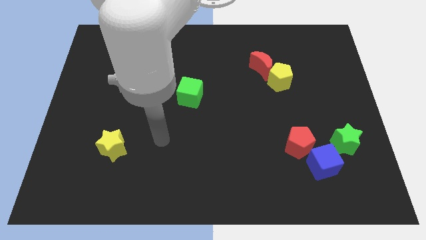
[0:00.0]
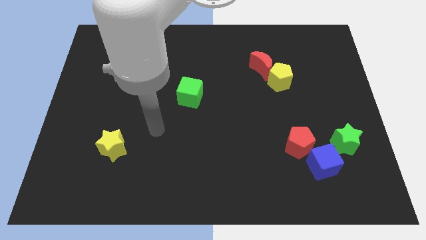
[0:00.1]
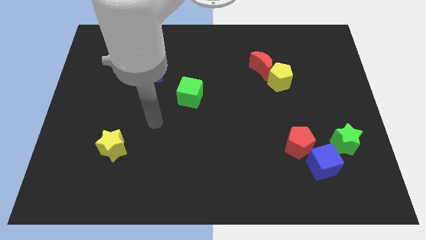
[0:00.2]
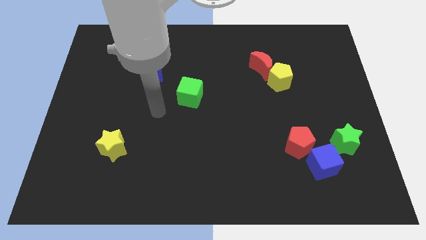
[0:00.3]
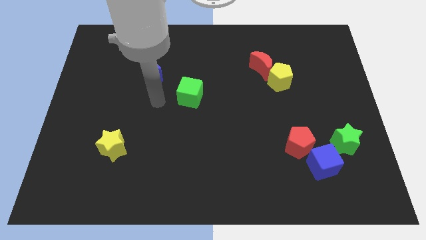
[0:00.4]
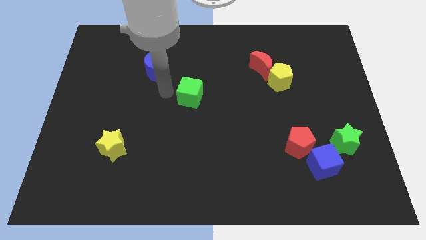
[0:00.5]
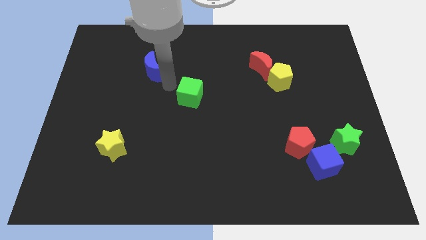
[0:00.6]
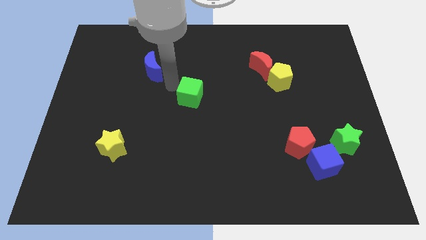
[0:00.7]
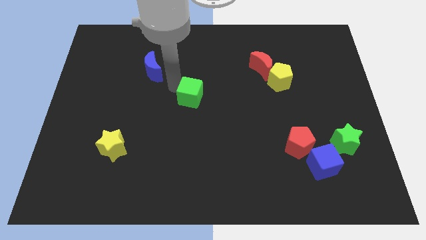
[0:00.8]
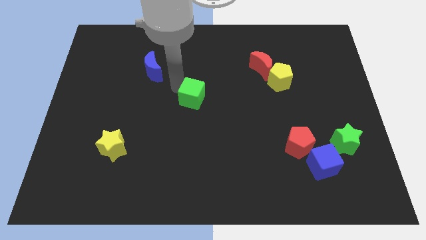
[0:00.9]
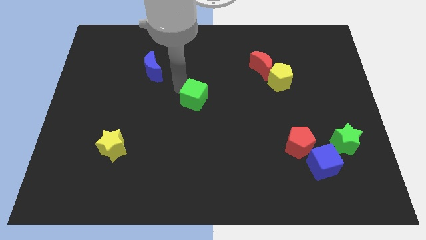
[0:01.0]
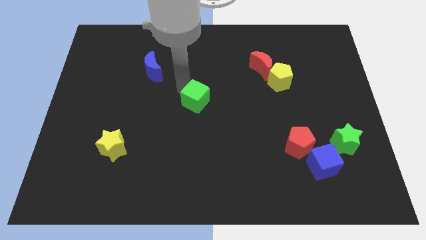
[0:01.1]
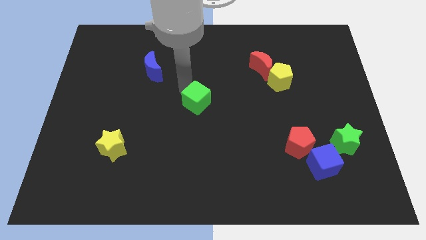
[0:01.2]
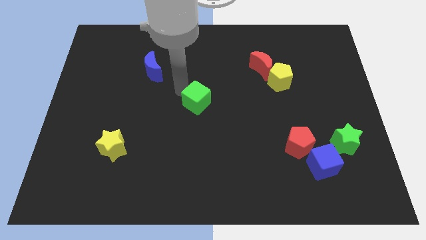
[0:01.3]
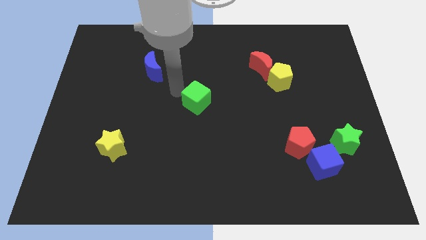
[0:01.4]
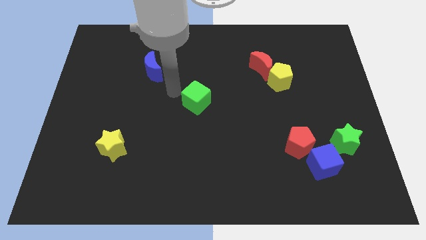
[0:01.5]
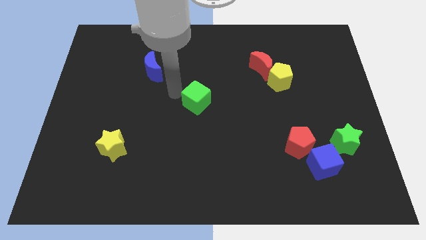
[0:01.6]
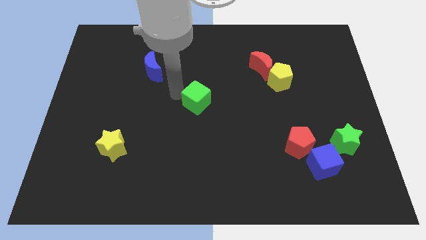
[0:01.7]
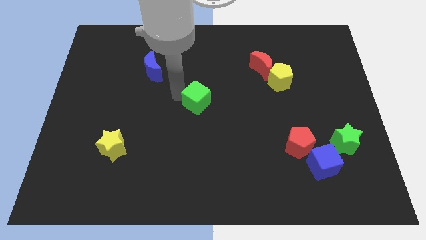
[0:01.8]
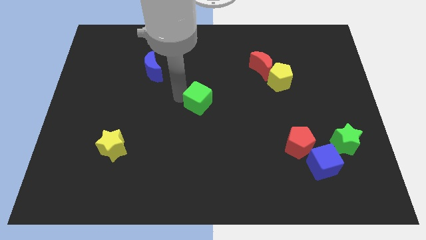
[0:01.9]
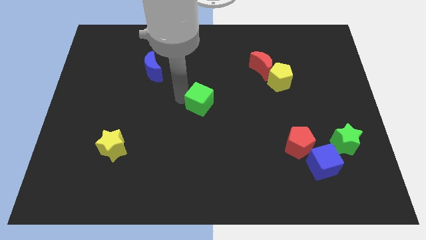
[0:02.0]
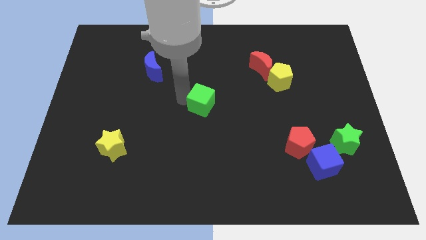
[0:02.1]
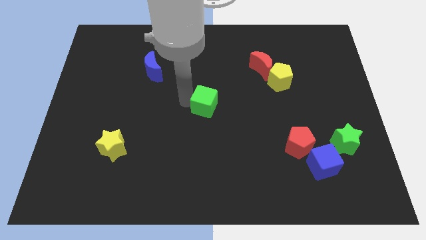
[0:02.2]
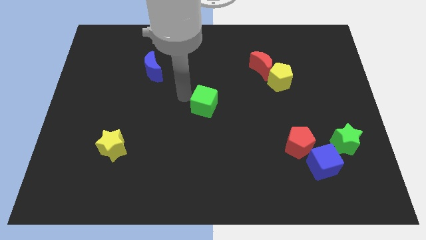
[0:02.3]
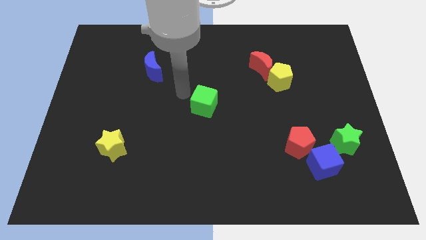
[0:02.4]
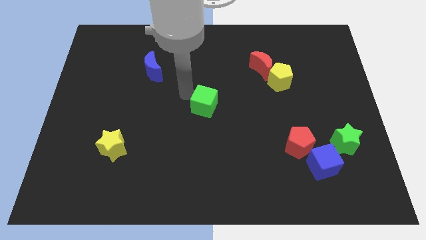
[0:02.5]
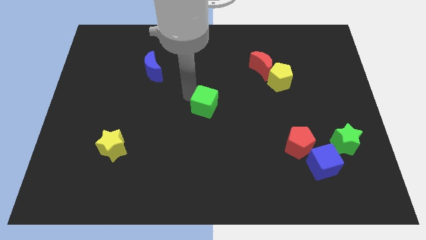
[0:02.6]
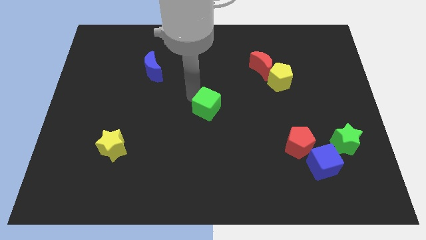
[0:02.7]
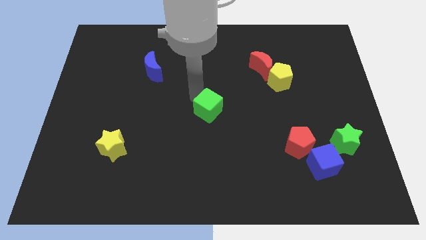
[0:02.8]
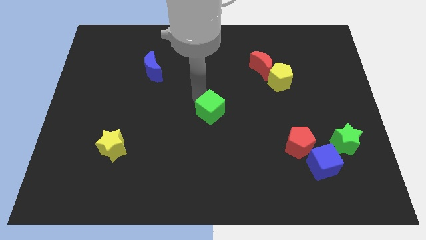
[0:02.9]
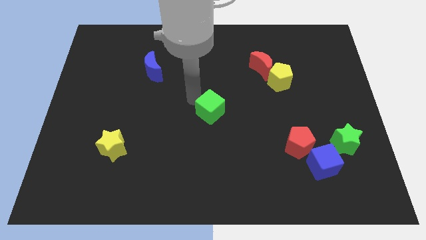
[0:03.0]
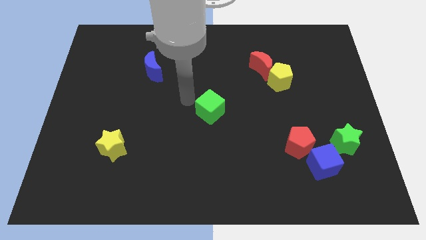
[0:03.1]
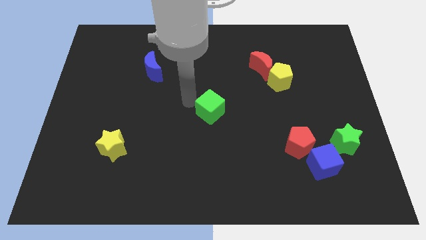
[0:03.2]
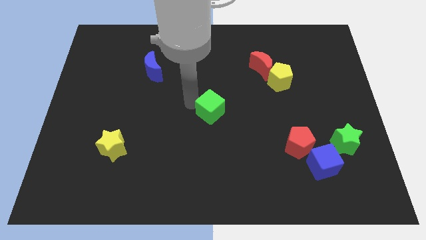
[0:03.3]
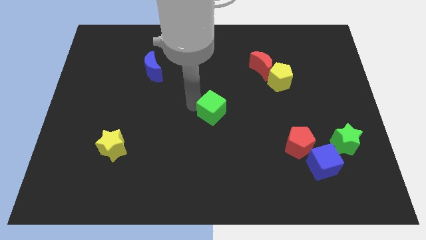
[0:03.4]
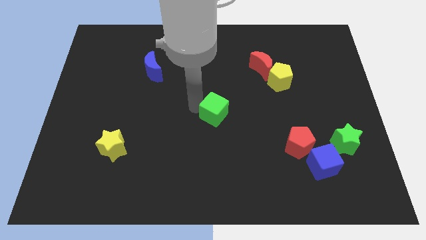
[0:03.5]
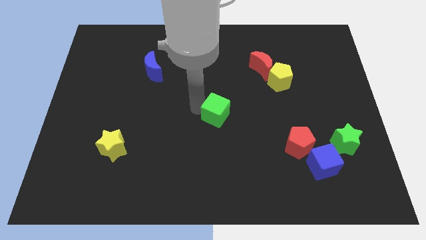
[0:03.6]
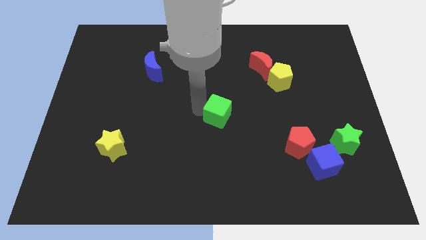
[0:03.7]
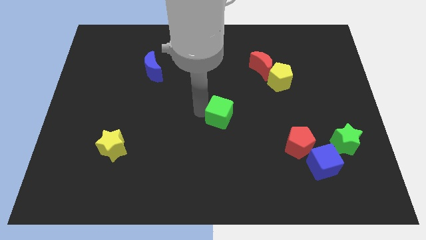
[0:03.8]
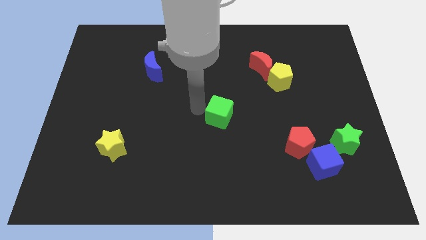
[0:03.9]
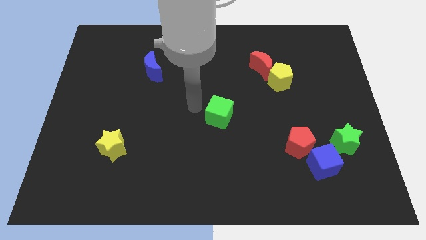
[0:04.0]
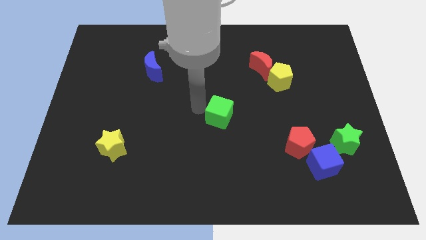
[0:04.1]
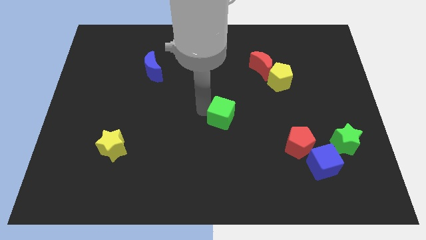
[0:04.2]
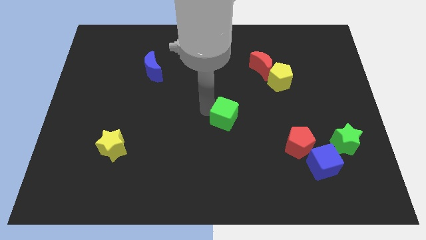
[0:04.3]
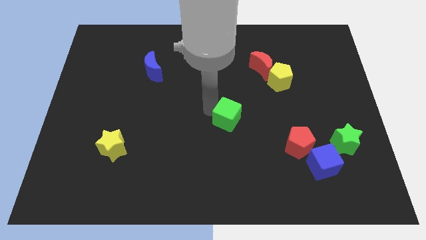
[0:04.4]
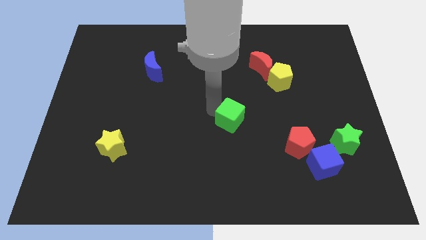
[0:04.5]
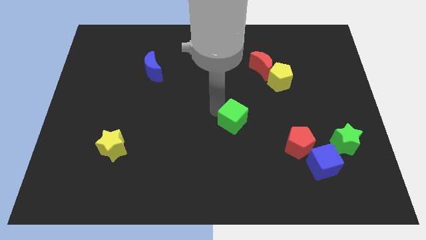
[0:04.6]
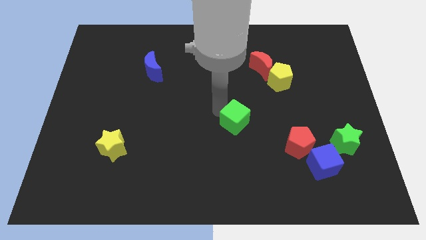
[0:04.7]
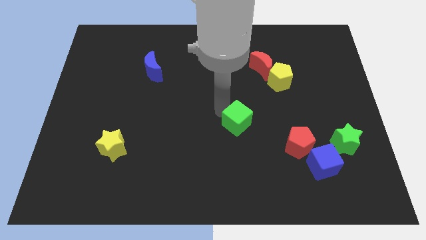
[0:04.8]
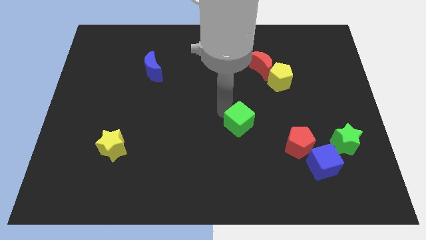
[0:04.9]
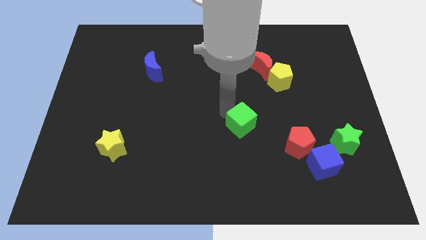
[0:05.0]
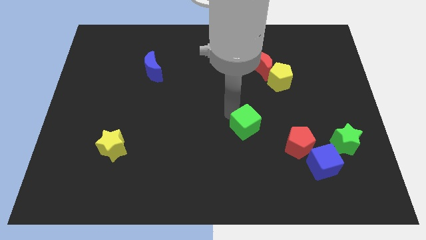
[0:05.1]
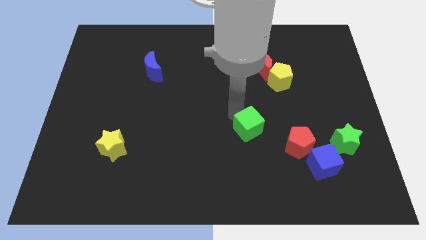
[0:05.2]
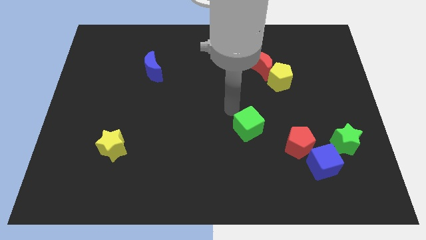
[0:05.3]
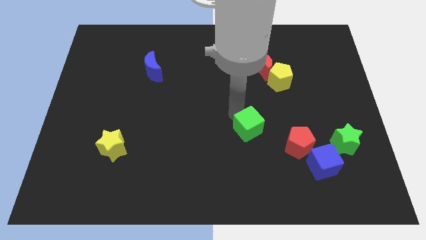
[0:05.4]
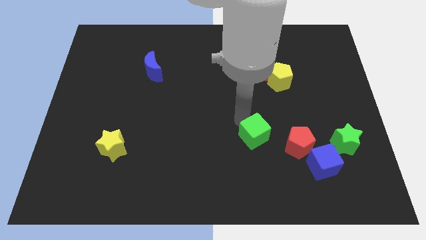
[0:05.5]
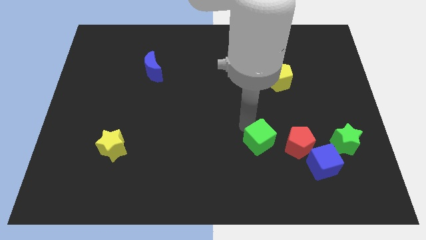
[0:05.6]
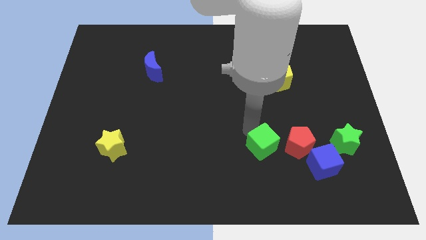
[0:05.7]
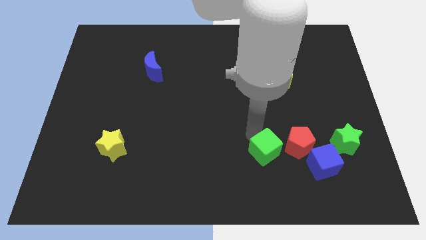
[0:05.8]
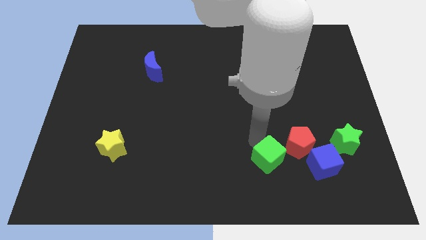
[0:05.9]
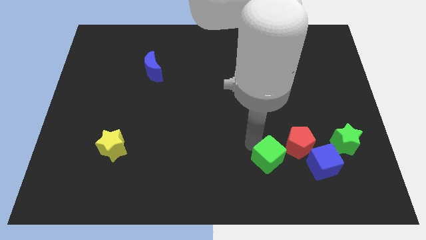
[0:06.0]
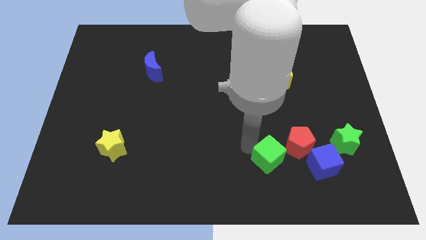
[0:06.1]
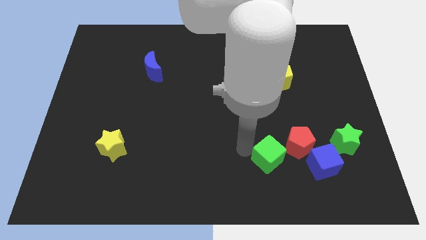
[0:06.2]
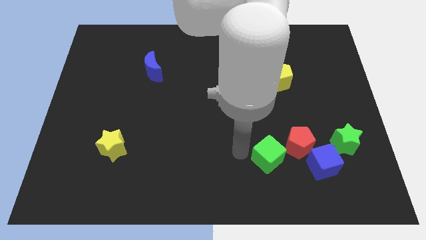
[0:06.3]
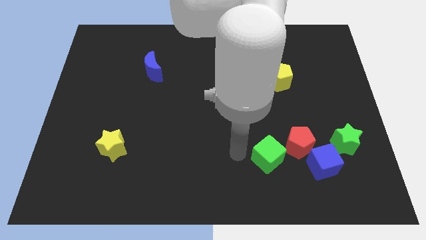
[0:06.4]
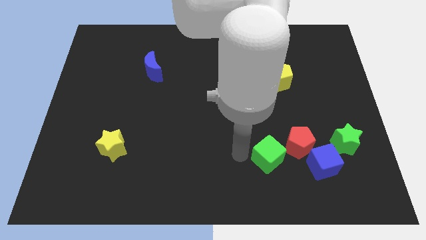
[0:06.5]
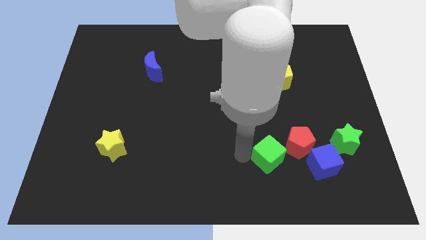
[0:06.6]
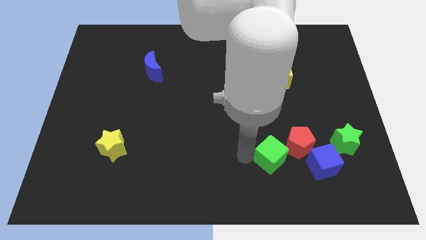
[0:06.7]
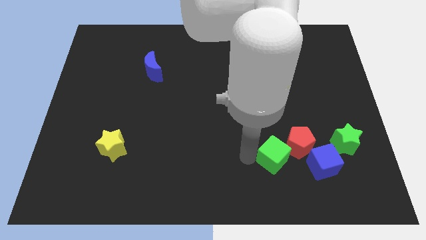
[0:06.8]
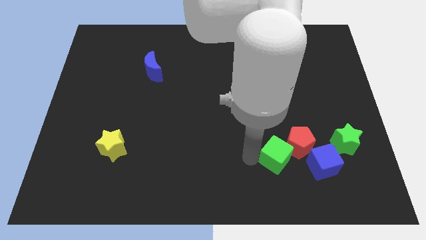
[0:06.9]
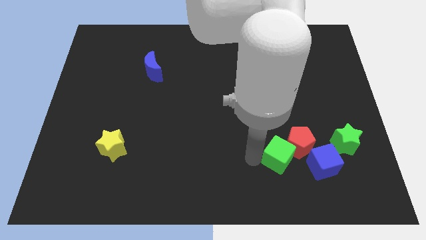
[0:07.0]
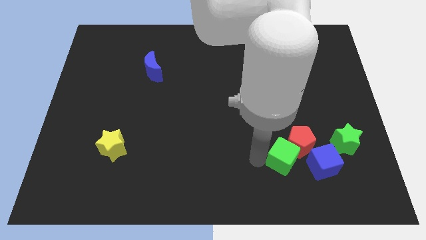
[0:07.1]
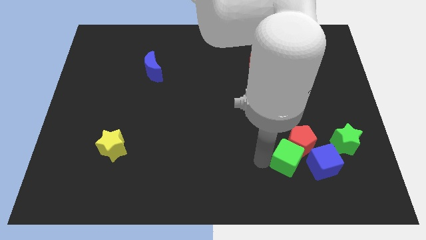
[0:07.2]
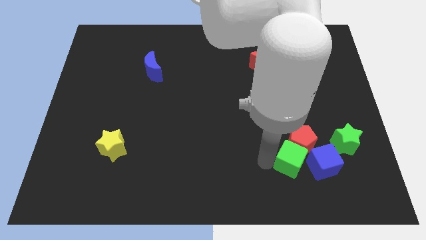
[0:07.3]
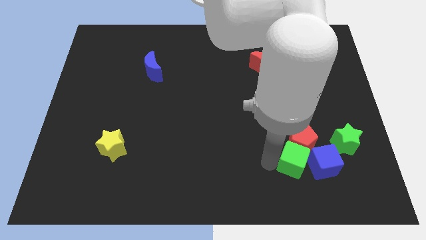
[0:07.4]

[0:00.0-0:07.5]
push the green cube towards the blue cube
